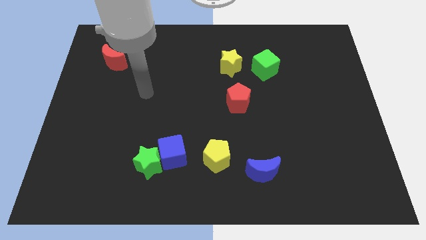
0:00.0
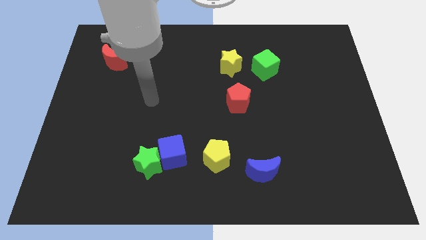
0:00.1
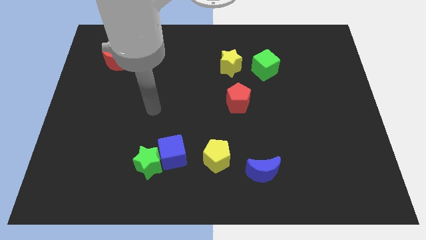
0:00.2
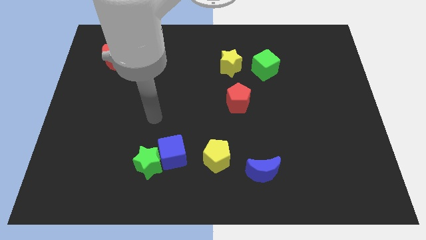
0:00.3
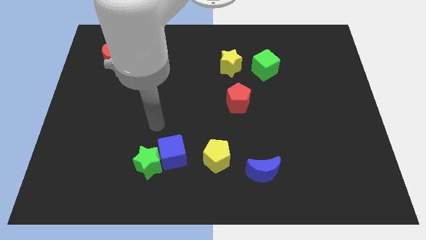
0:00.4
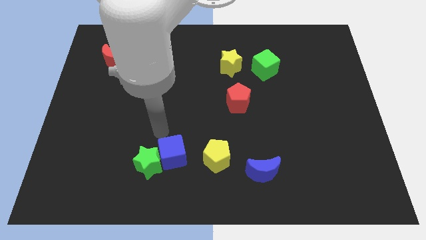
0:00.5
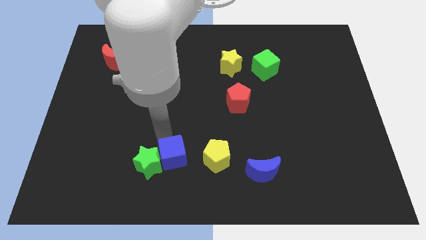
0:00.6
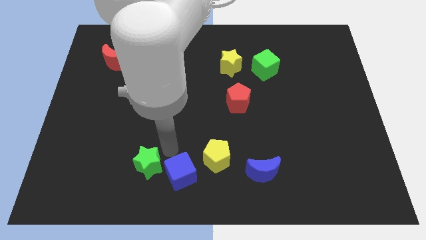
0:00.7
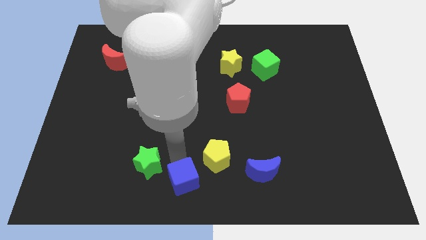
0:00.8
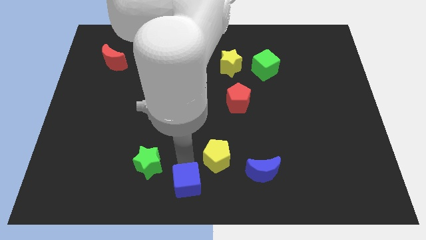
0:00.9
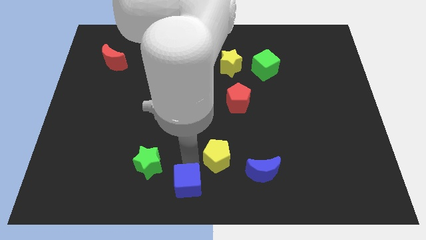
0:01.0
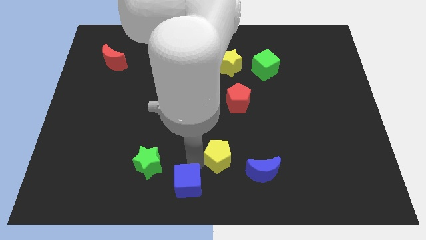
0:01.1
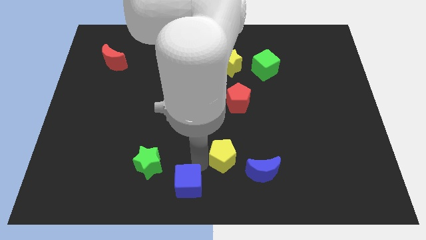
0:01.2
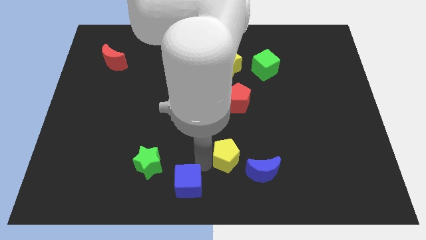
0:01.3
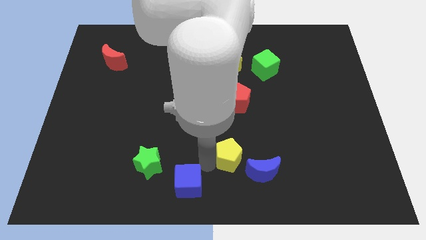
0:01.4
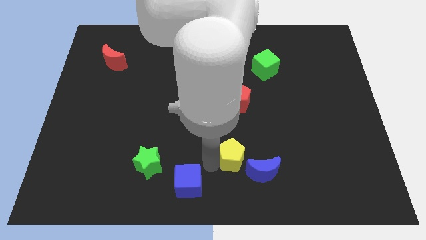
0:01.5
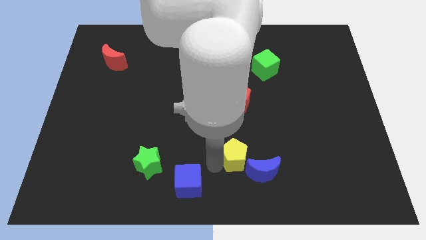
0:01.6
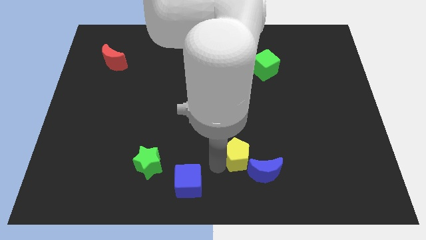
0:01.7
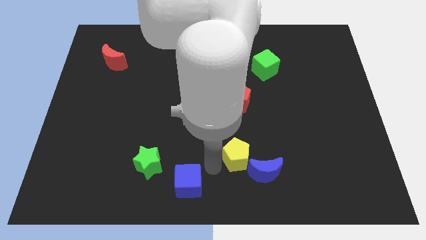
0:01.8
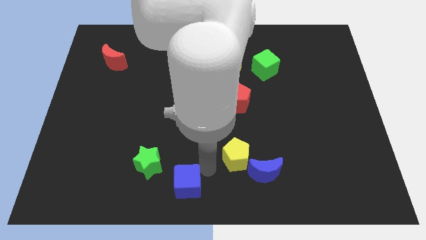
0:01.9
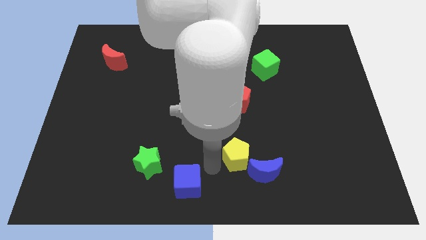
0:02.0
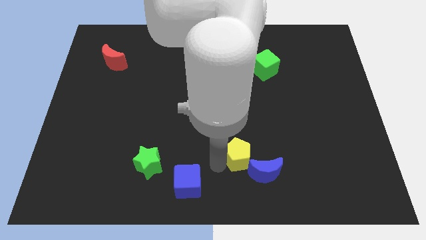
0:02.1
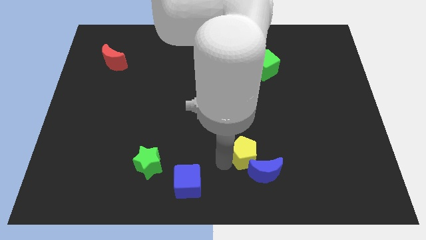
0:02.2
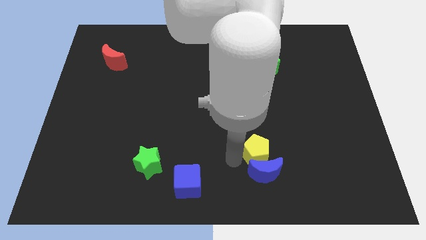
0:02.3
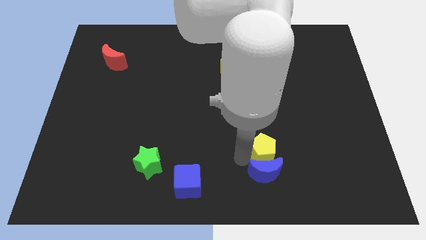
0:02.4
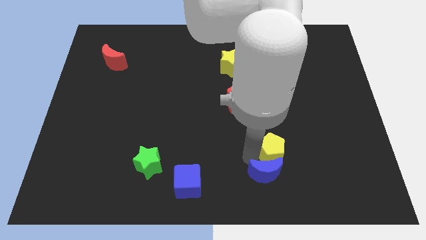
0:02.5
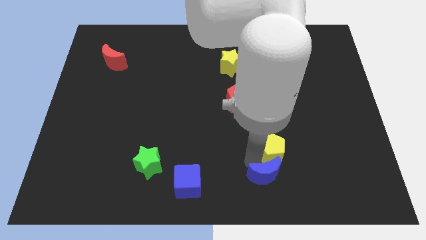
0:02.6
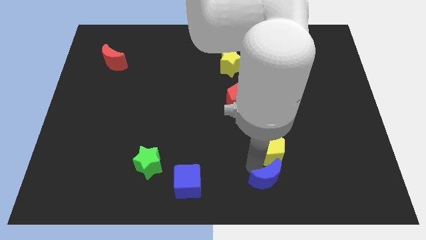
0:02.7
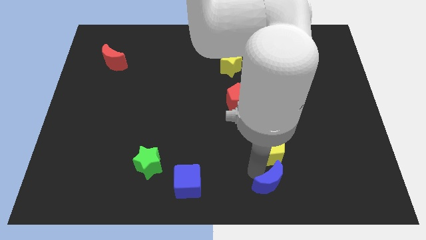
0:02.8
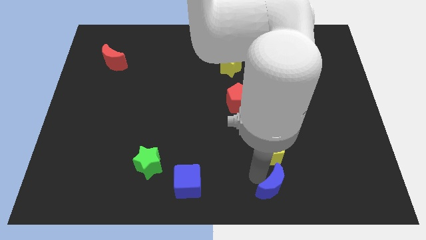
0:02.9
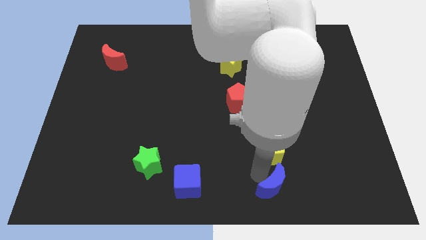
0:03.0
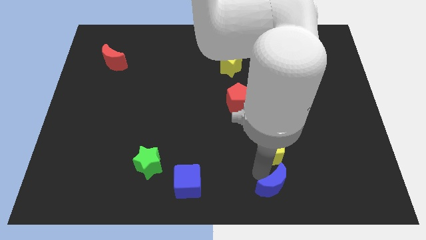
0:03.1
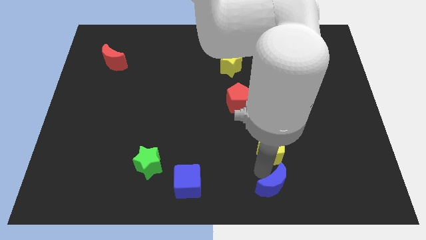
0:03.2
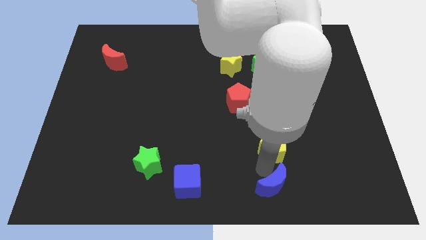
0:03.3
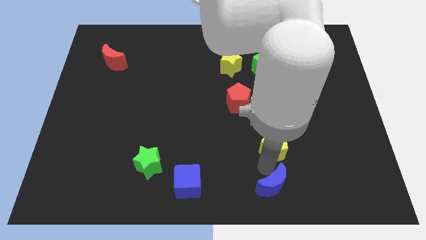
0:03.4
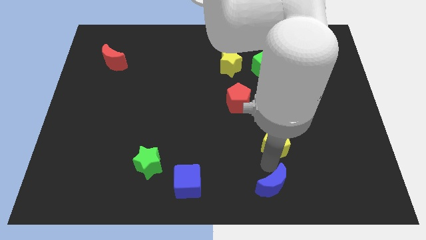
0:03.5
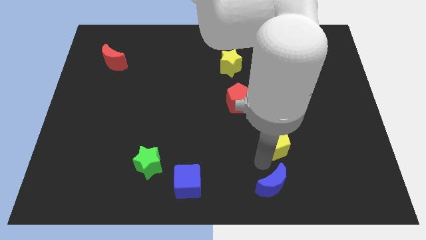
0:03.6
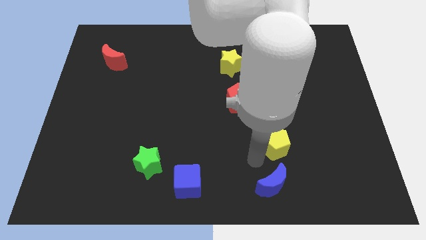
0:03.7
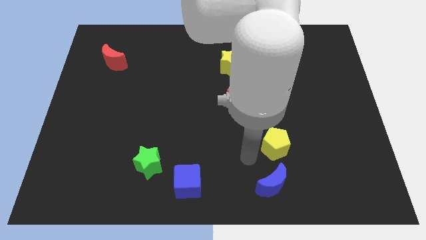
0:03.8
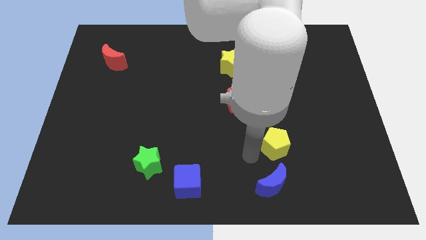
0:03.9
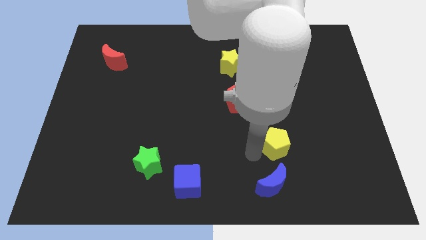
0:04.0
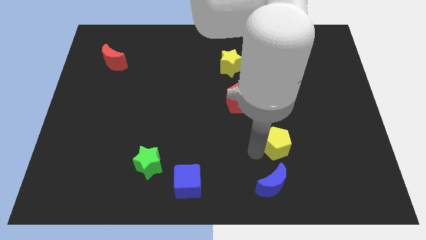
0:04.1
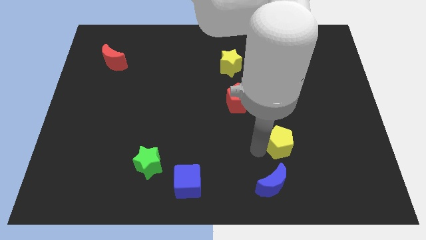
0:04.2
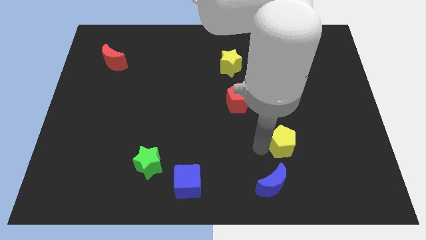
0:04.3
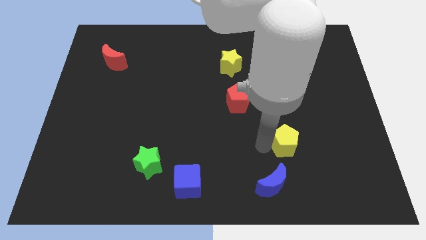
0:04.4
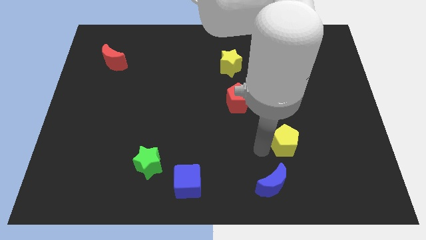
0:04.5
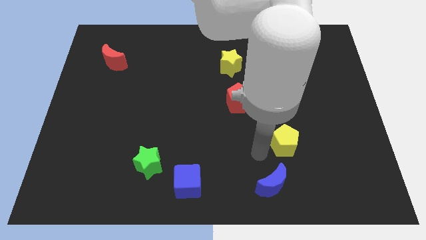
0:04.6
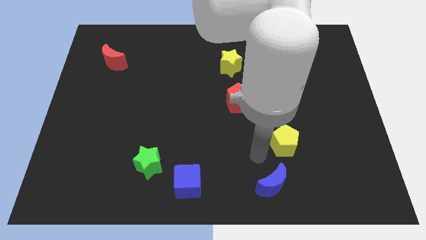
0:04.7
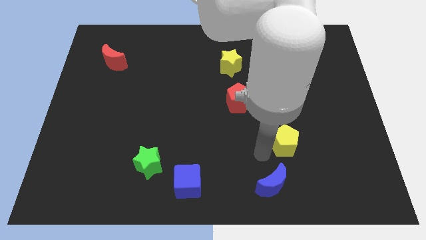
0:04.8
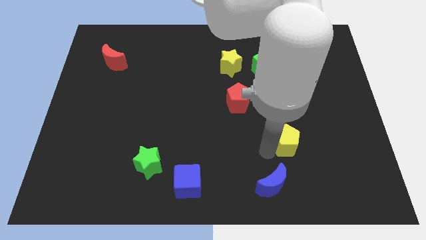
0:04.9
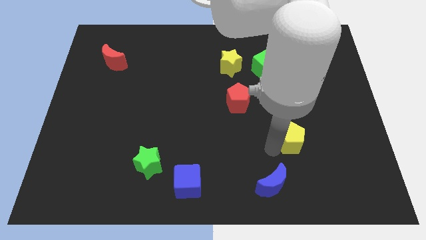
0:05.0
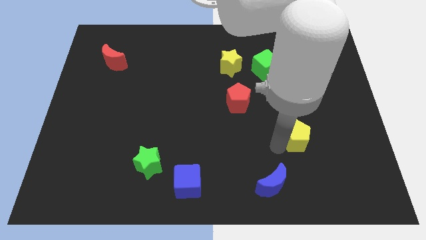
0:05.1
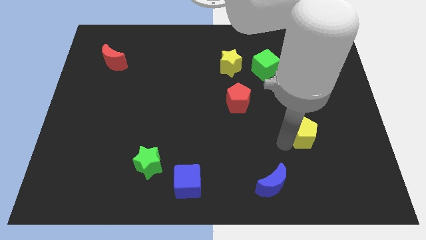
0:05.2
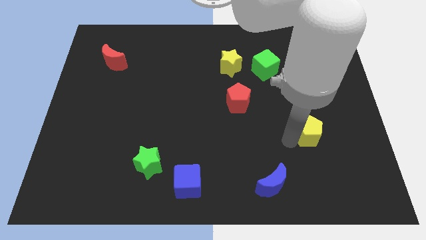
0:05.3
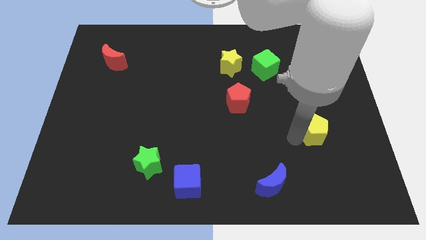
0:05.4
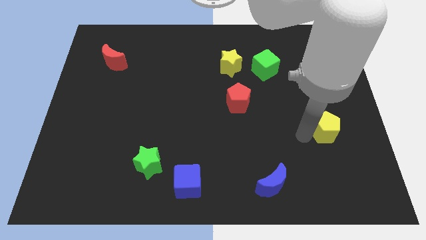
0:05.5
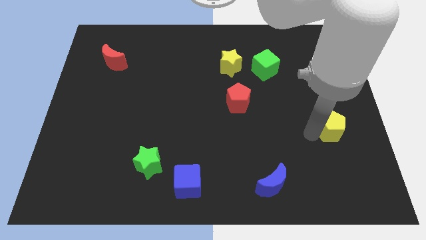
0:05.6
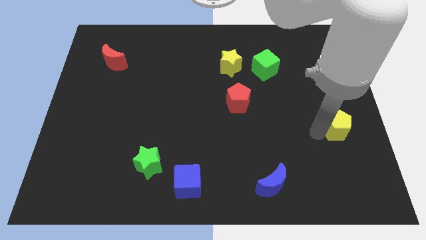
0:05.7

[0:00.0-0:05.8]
push the yellow pentagon to the right side of the board

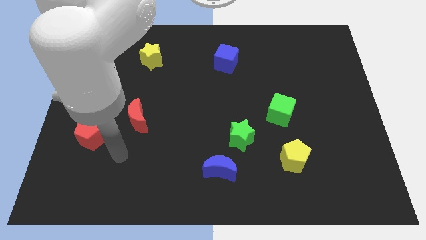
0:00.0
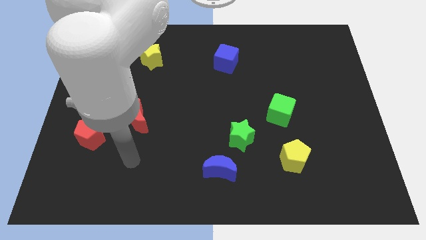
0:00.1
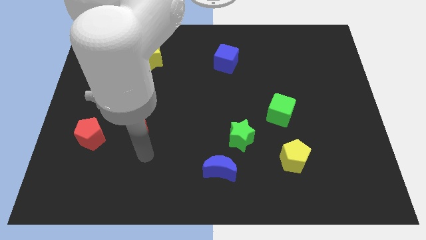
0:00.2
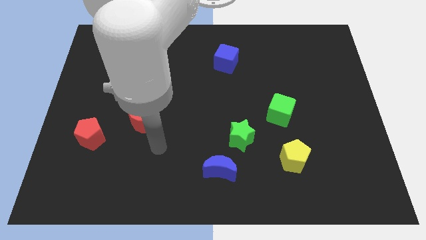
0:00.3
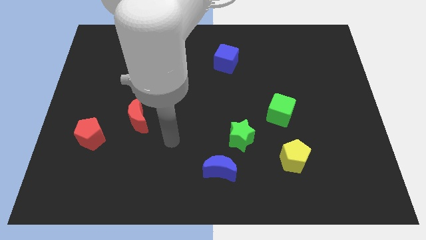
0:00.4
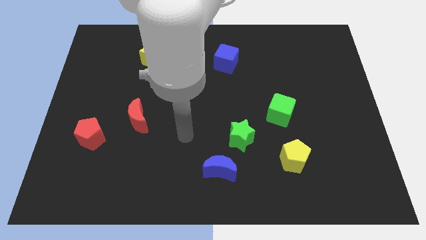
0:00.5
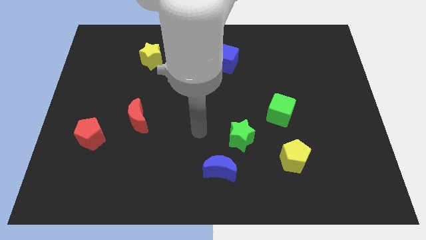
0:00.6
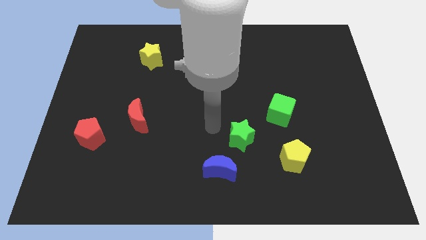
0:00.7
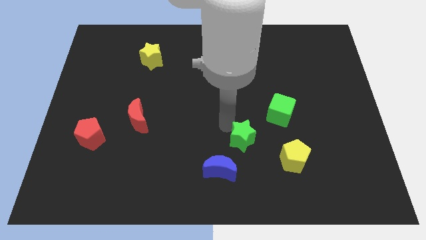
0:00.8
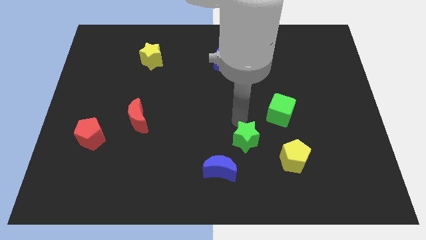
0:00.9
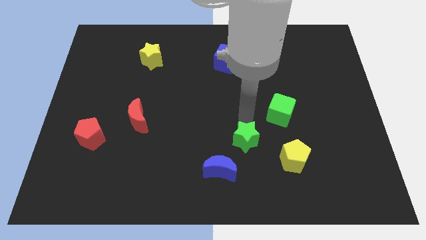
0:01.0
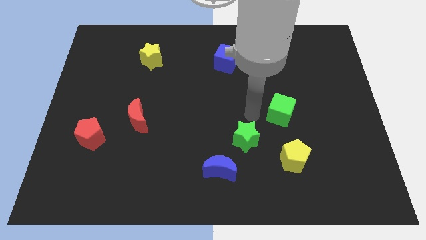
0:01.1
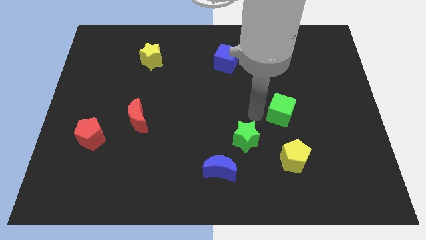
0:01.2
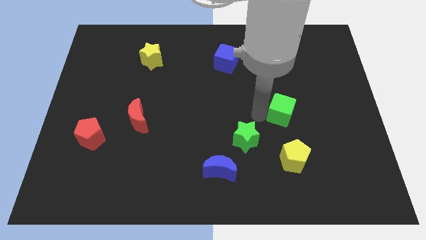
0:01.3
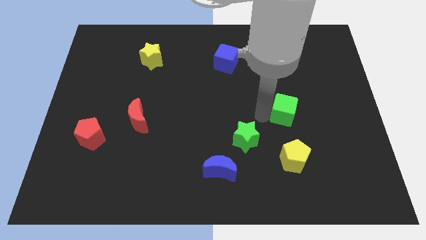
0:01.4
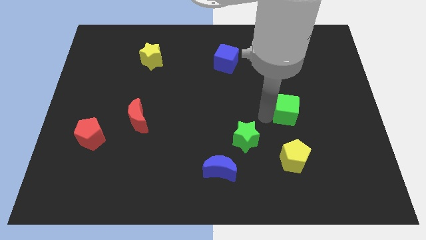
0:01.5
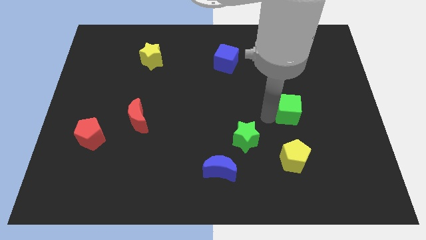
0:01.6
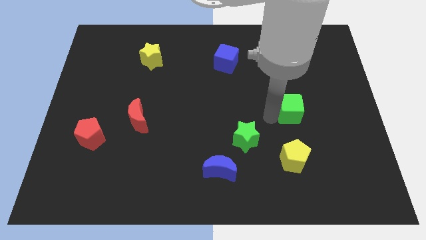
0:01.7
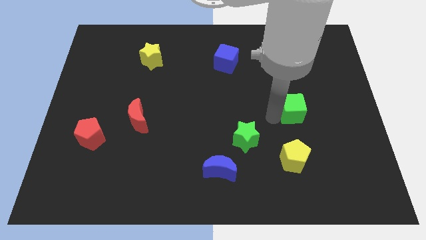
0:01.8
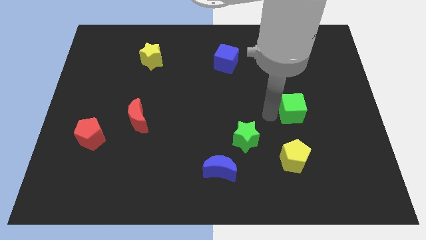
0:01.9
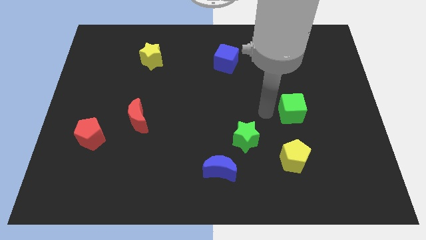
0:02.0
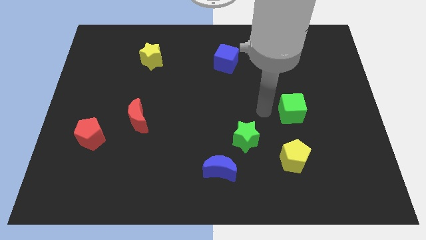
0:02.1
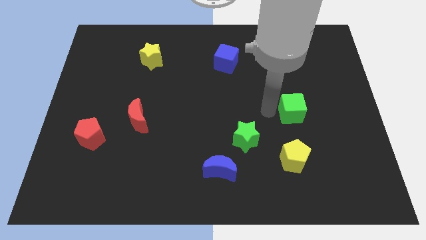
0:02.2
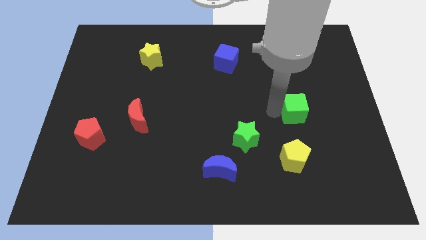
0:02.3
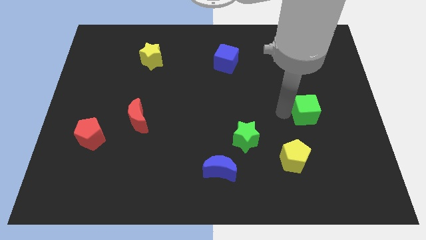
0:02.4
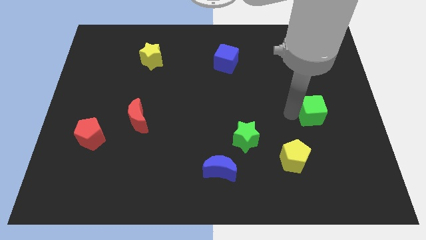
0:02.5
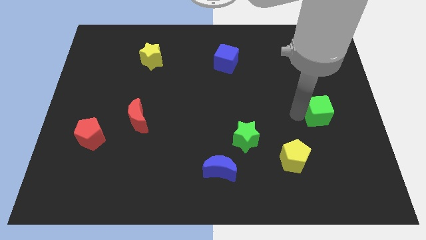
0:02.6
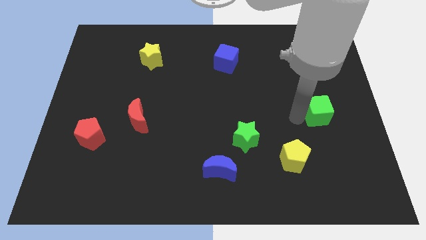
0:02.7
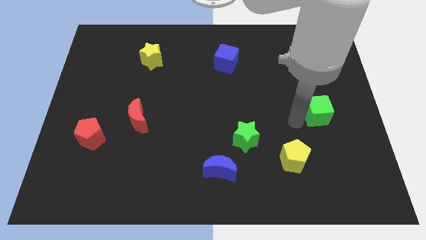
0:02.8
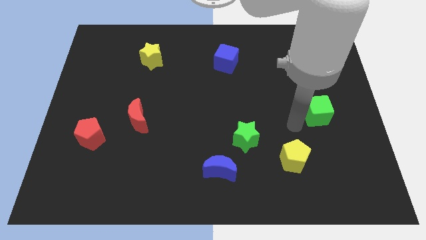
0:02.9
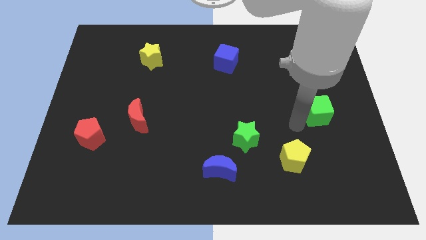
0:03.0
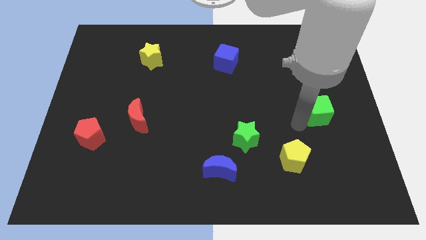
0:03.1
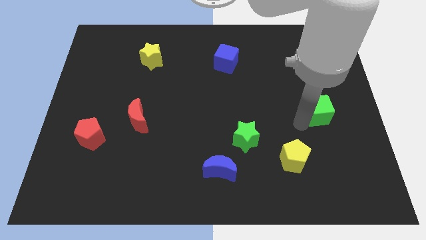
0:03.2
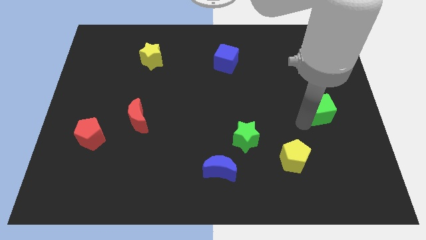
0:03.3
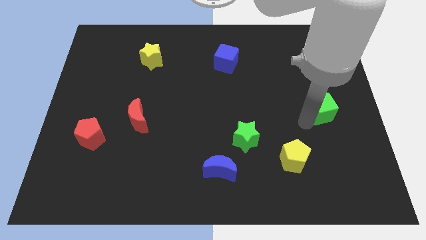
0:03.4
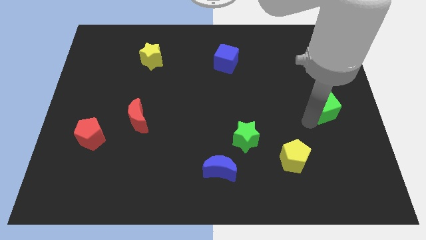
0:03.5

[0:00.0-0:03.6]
push the green cube to the right side of the board
